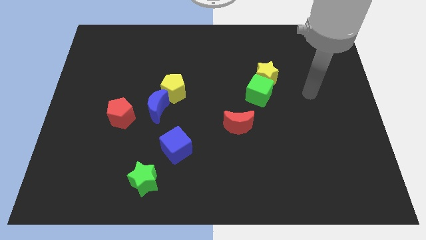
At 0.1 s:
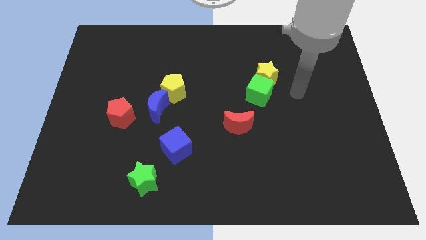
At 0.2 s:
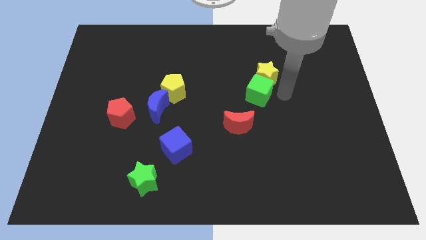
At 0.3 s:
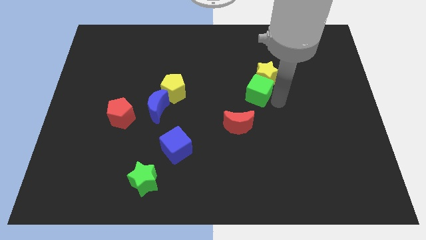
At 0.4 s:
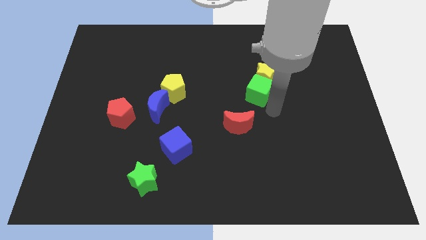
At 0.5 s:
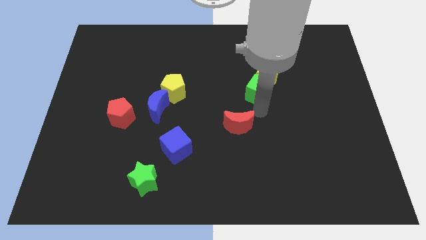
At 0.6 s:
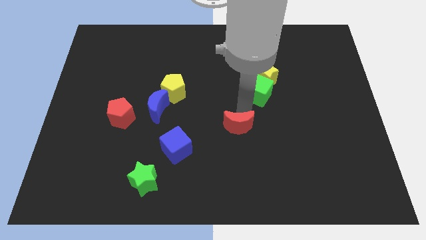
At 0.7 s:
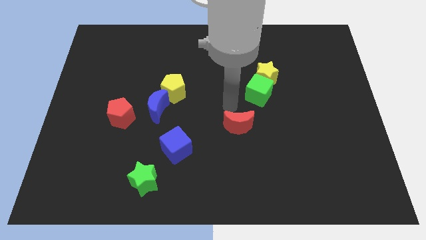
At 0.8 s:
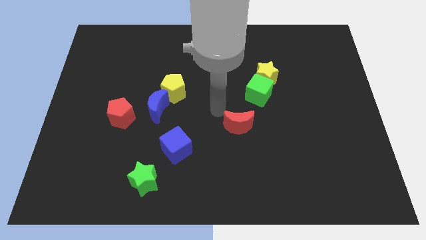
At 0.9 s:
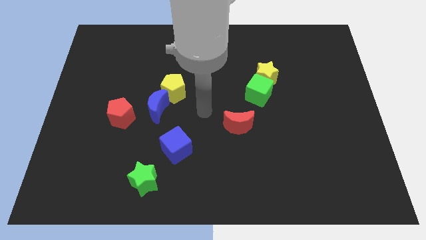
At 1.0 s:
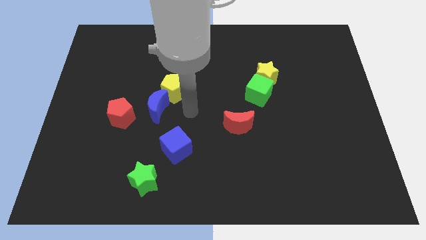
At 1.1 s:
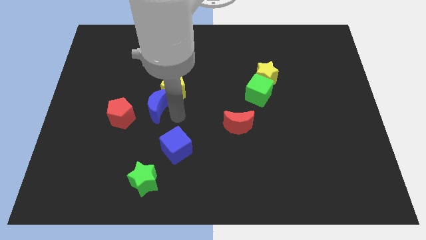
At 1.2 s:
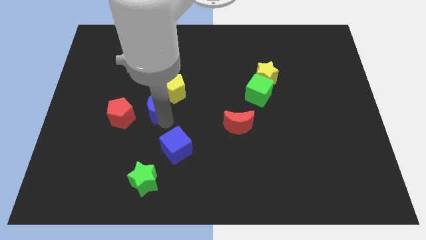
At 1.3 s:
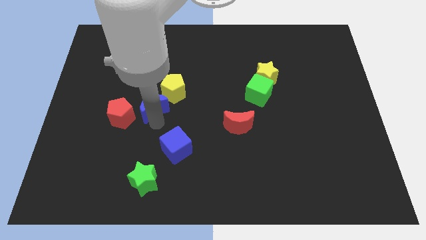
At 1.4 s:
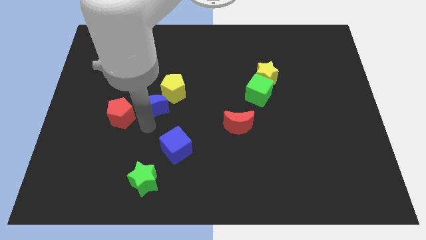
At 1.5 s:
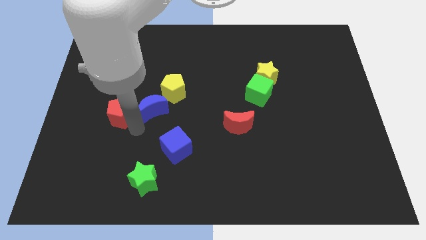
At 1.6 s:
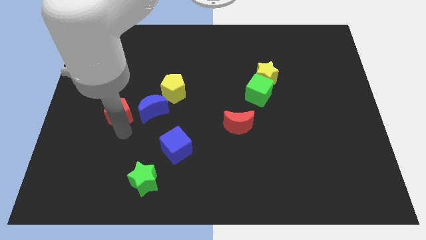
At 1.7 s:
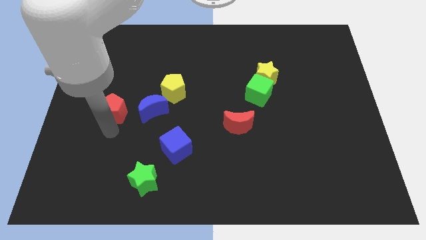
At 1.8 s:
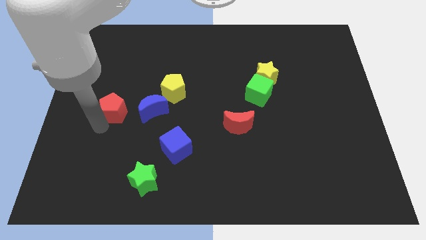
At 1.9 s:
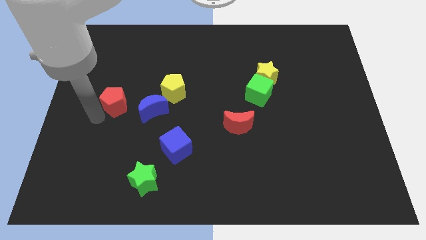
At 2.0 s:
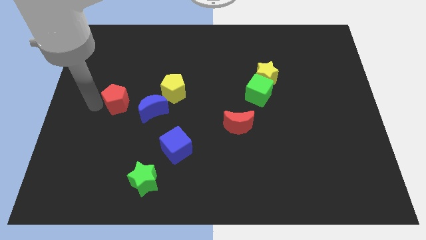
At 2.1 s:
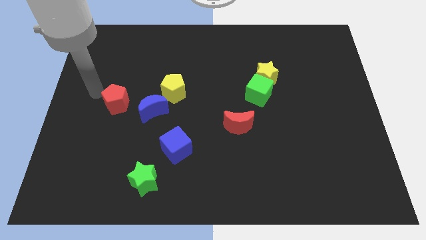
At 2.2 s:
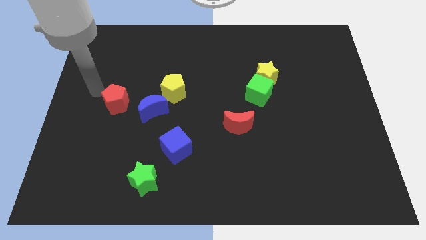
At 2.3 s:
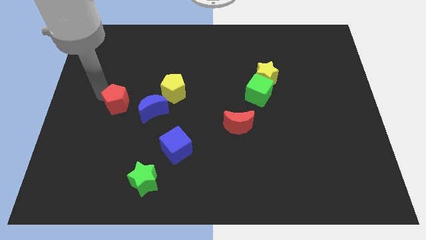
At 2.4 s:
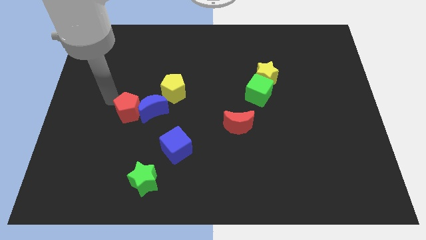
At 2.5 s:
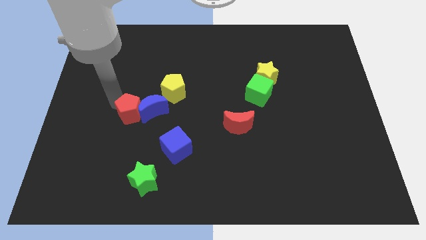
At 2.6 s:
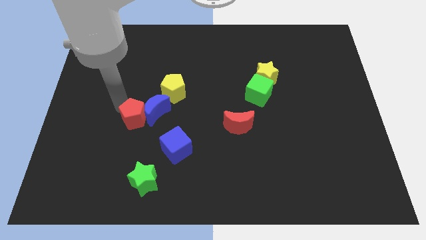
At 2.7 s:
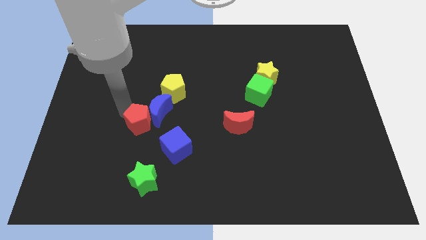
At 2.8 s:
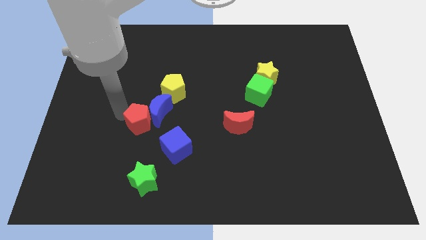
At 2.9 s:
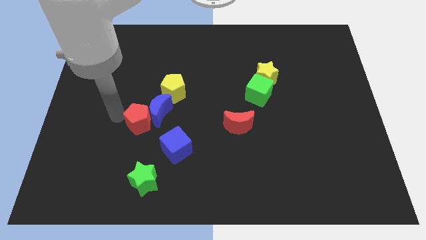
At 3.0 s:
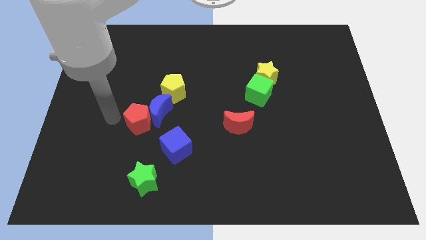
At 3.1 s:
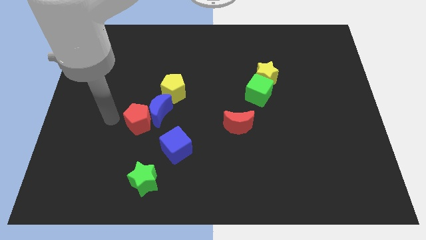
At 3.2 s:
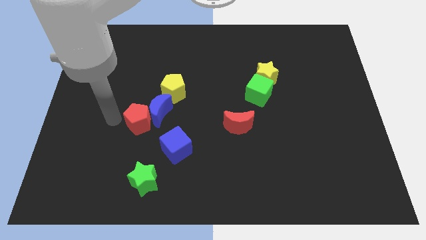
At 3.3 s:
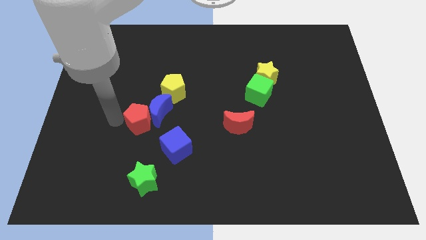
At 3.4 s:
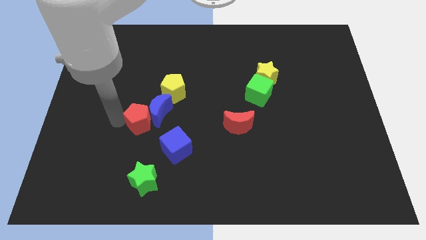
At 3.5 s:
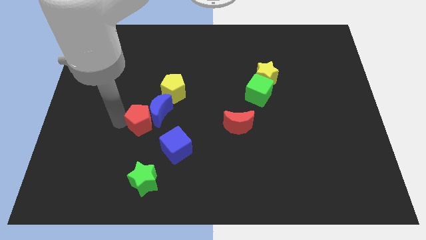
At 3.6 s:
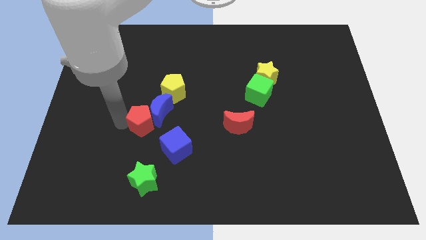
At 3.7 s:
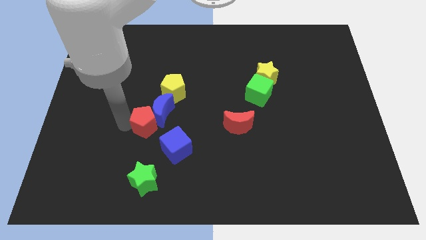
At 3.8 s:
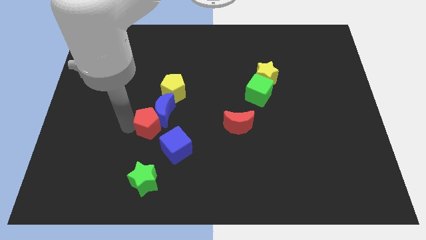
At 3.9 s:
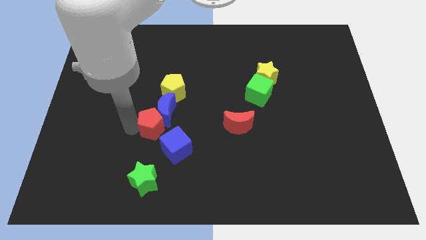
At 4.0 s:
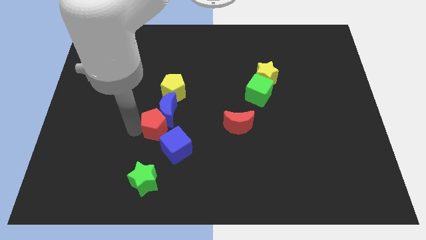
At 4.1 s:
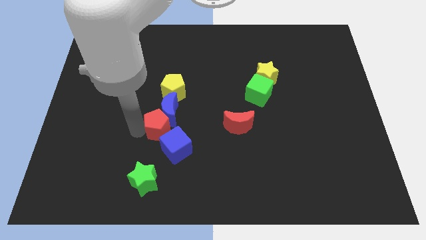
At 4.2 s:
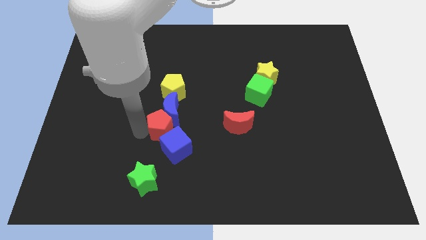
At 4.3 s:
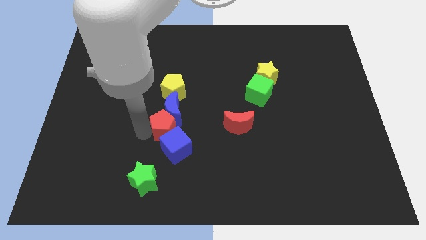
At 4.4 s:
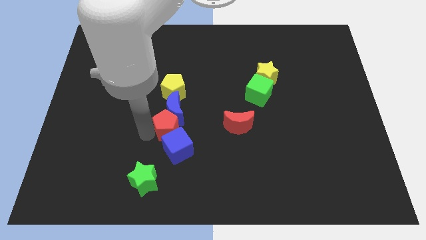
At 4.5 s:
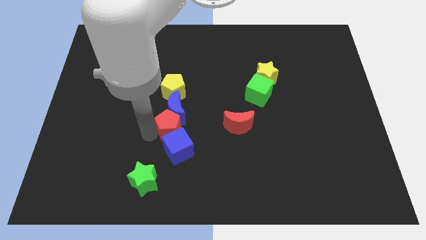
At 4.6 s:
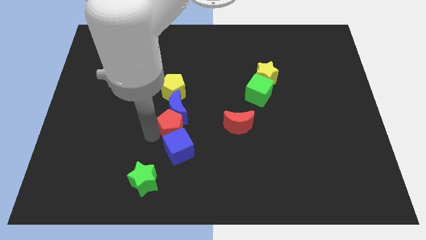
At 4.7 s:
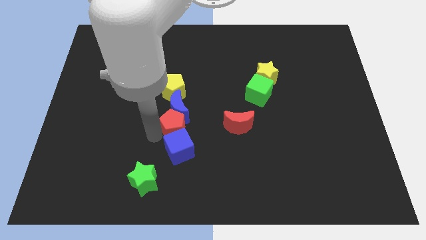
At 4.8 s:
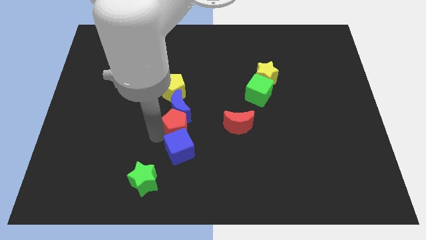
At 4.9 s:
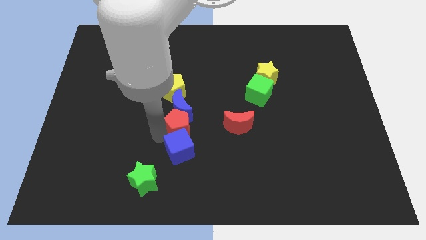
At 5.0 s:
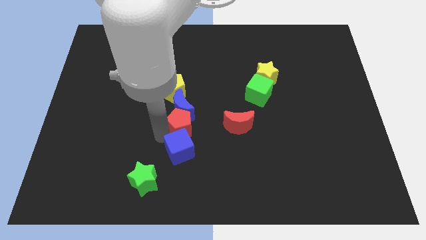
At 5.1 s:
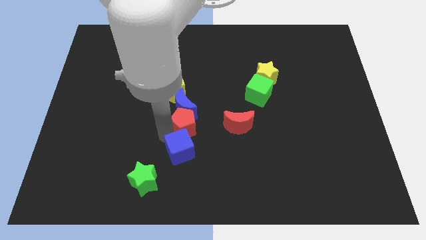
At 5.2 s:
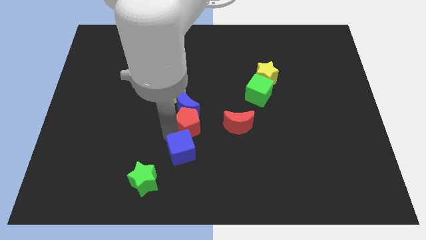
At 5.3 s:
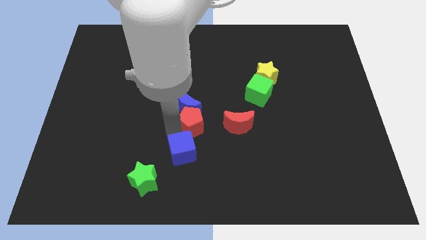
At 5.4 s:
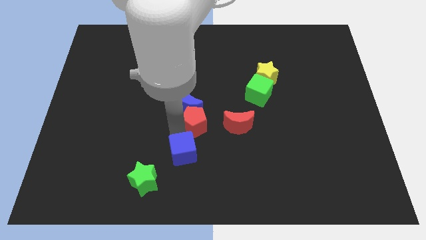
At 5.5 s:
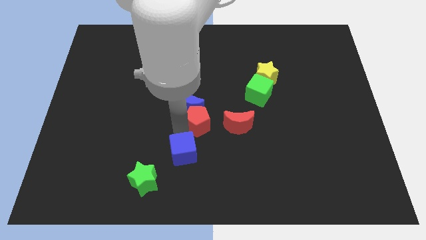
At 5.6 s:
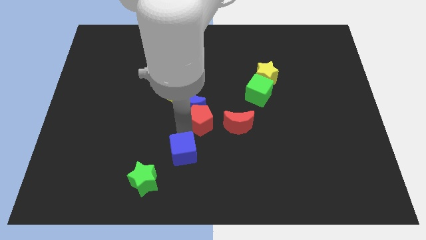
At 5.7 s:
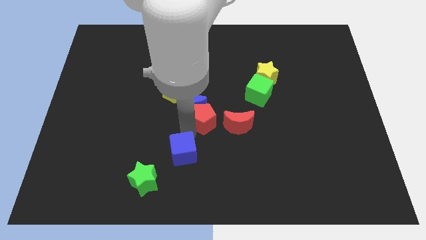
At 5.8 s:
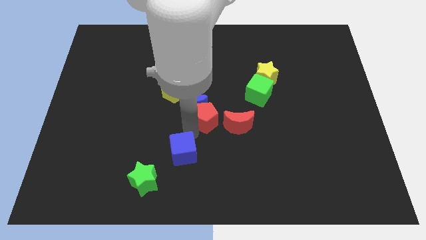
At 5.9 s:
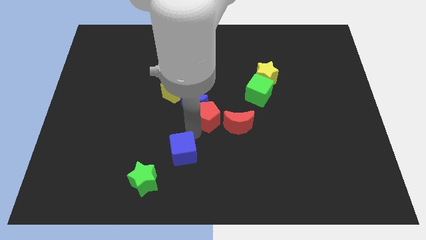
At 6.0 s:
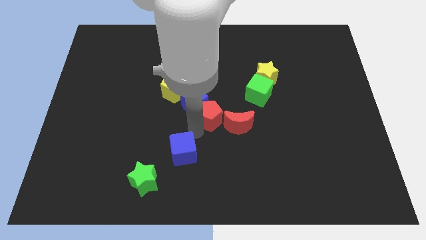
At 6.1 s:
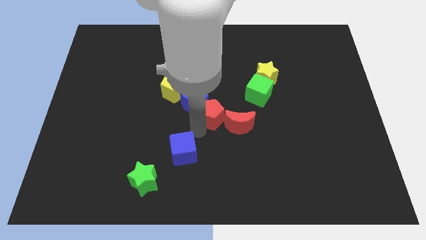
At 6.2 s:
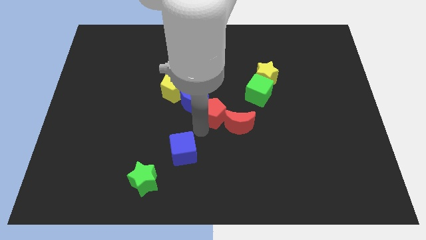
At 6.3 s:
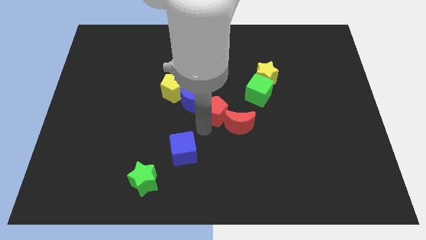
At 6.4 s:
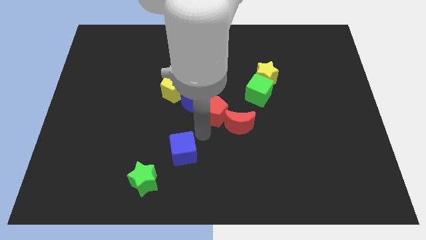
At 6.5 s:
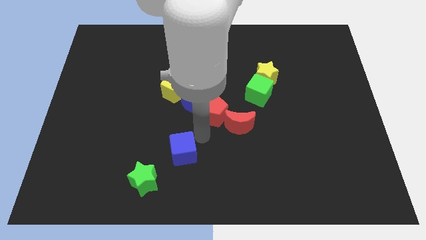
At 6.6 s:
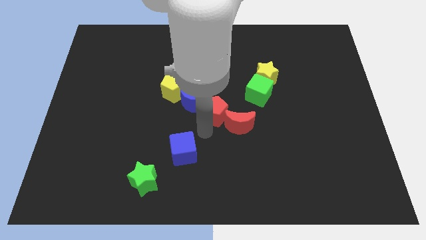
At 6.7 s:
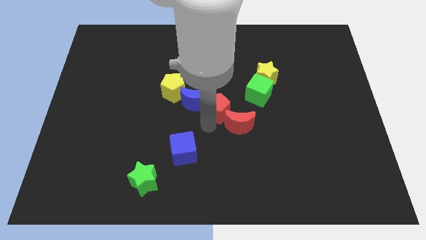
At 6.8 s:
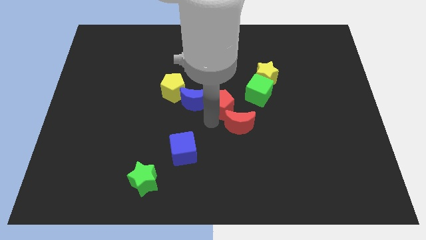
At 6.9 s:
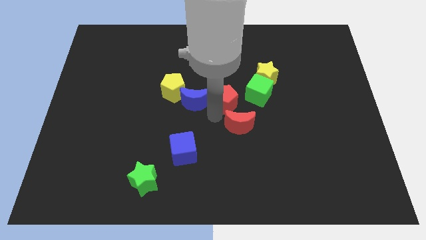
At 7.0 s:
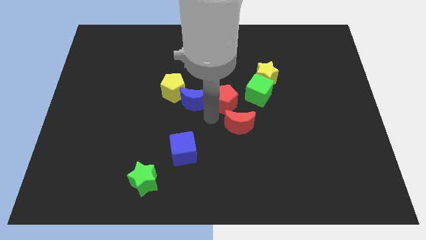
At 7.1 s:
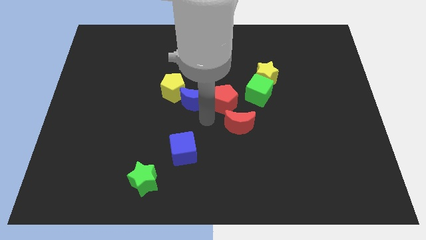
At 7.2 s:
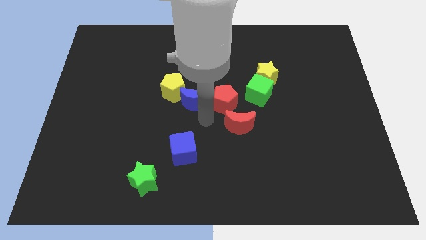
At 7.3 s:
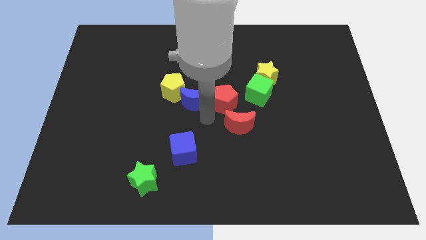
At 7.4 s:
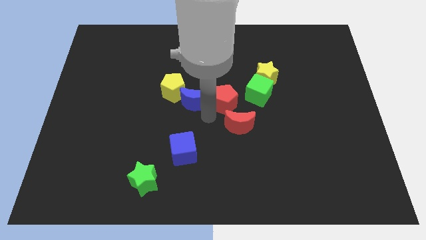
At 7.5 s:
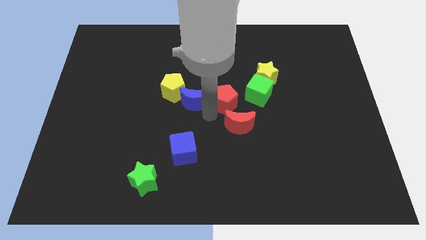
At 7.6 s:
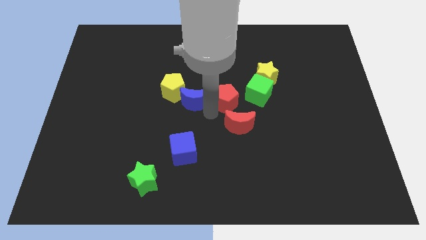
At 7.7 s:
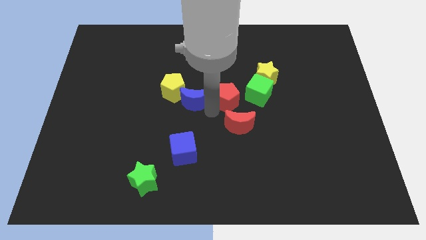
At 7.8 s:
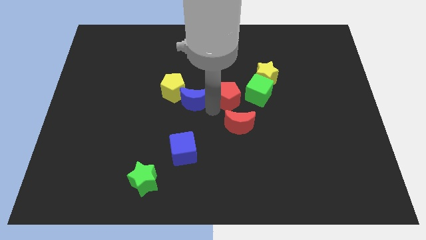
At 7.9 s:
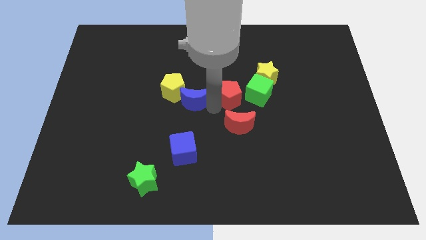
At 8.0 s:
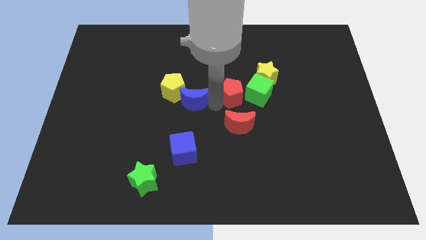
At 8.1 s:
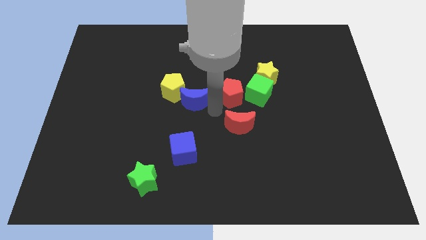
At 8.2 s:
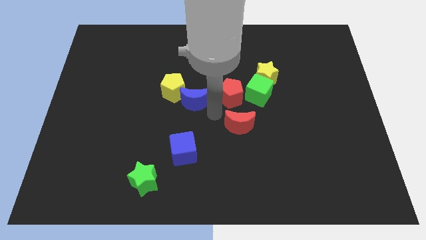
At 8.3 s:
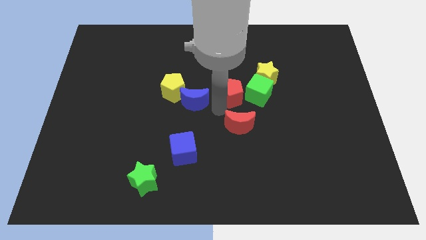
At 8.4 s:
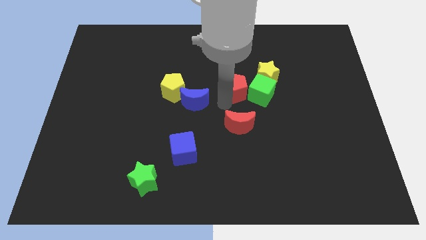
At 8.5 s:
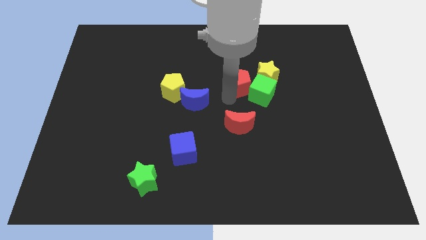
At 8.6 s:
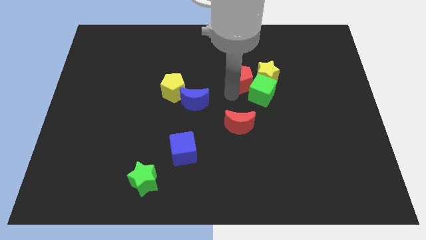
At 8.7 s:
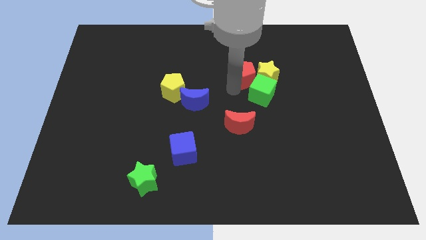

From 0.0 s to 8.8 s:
move the red pentagon to the yellow star
